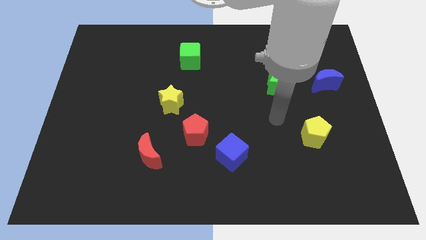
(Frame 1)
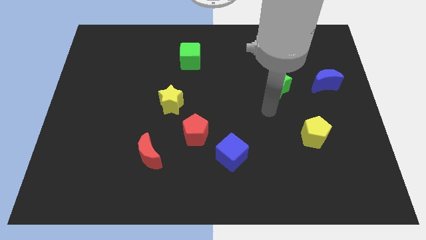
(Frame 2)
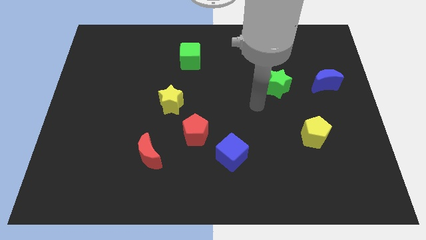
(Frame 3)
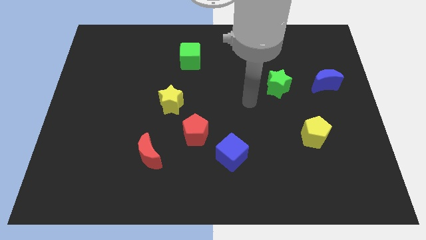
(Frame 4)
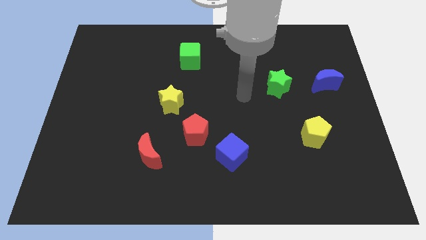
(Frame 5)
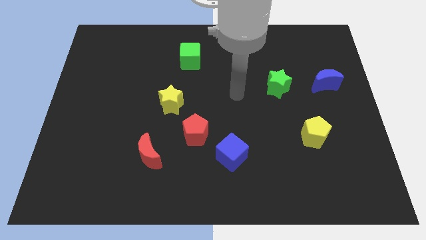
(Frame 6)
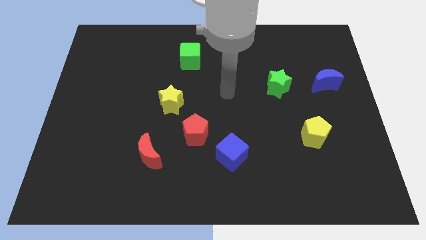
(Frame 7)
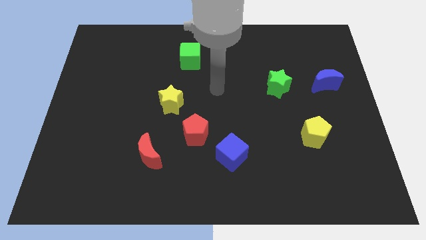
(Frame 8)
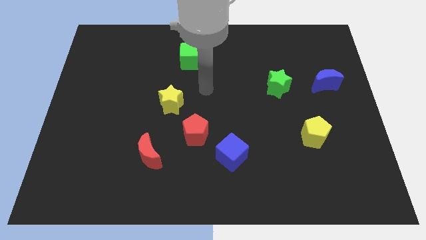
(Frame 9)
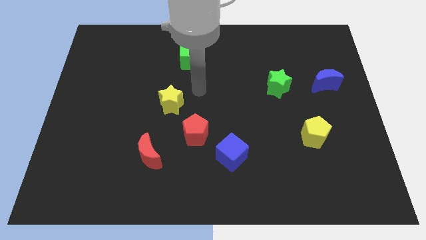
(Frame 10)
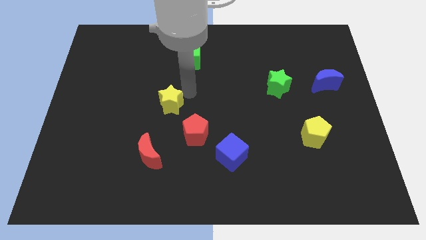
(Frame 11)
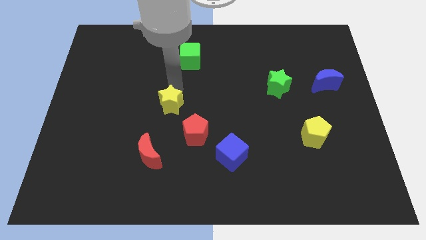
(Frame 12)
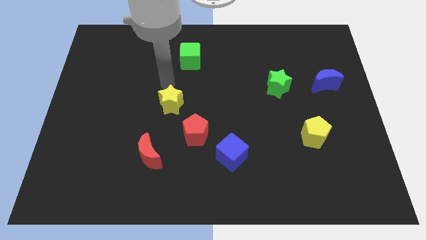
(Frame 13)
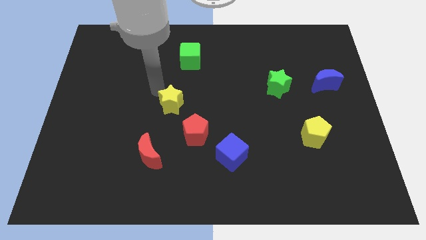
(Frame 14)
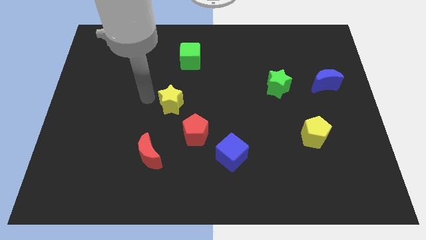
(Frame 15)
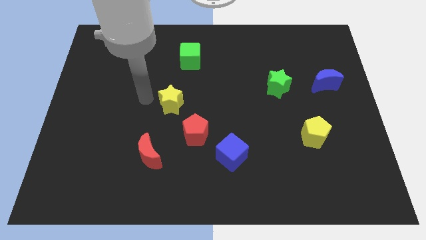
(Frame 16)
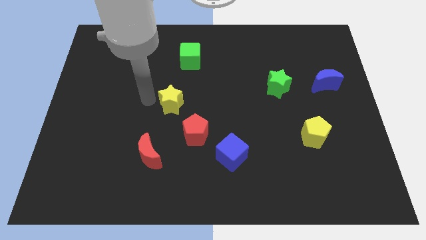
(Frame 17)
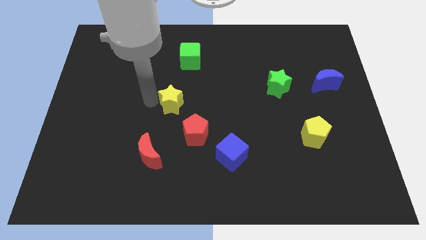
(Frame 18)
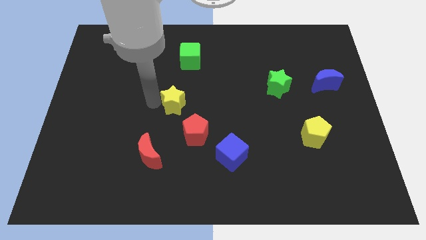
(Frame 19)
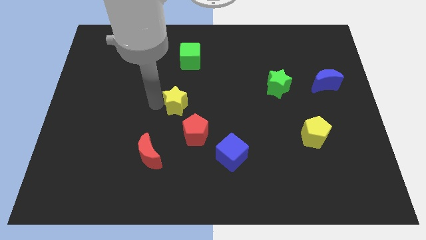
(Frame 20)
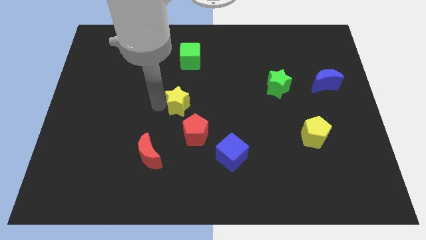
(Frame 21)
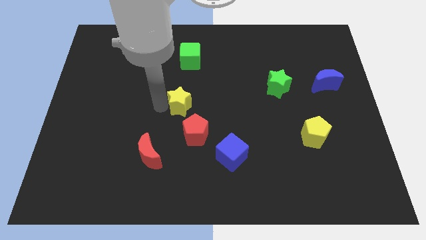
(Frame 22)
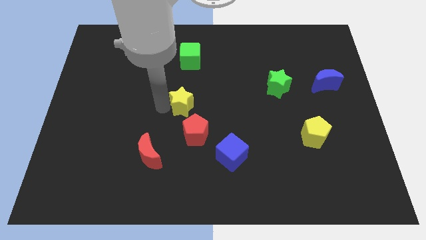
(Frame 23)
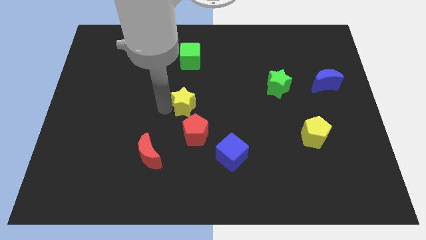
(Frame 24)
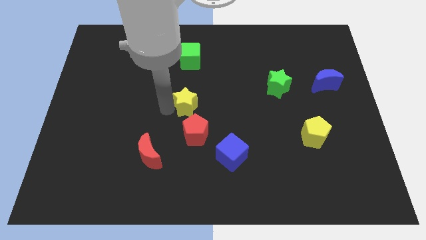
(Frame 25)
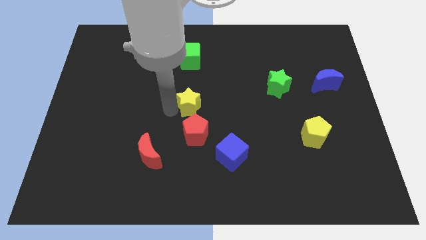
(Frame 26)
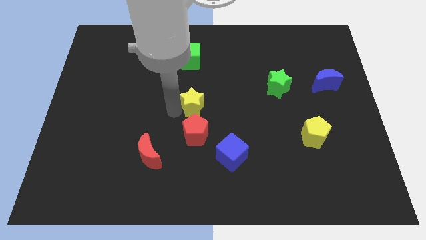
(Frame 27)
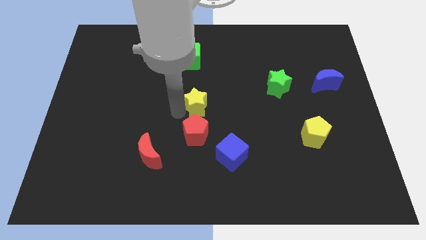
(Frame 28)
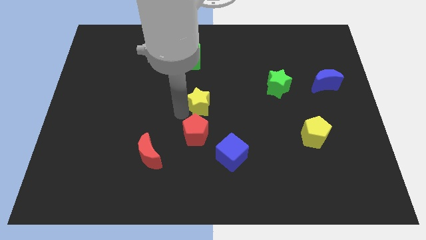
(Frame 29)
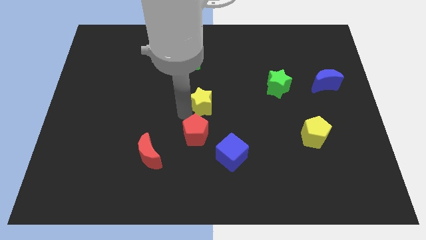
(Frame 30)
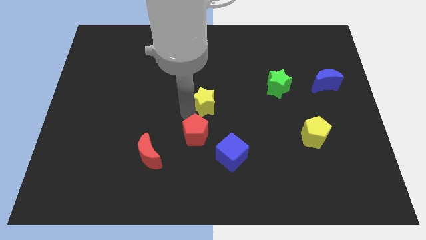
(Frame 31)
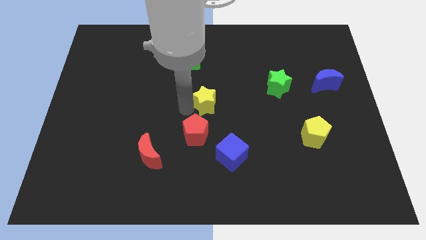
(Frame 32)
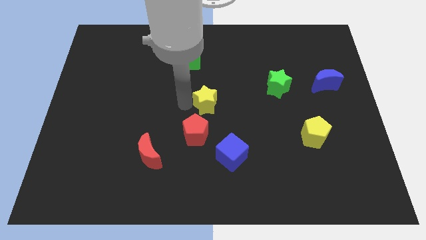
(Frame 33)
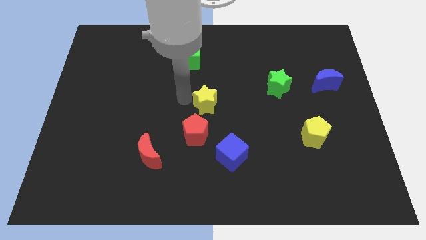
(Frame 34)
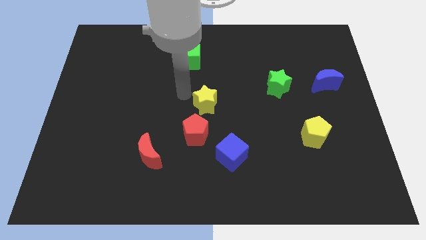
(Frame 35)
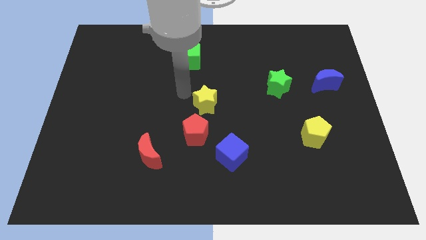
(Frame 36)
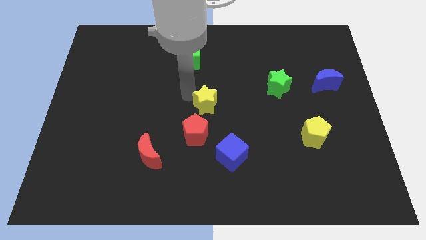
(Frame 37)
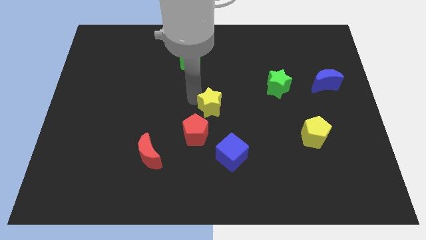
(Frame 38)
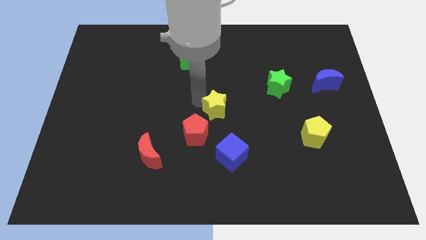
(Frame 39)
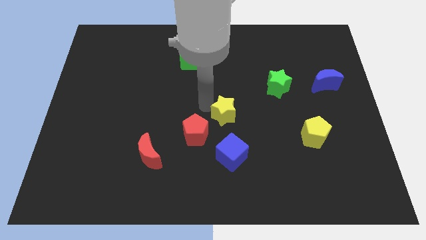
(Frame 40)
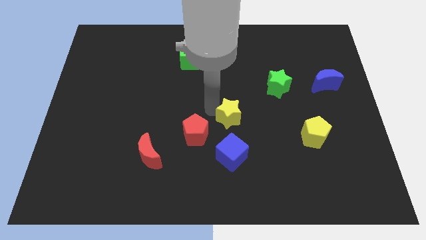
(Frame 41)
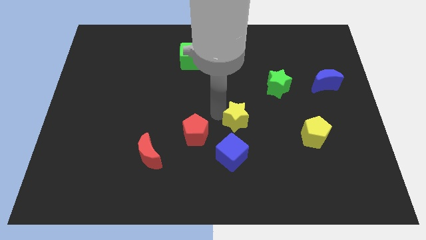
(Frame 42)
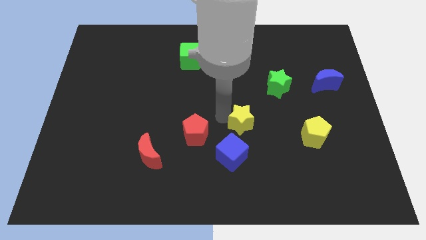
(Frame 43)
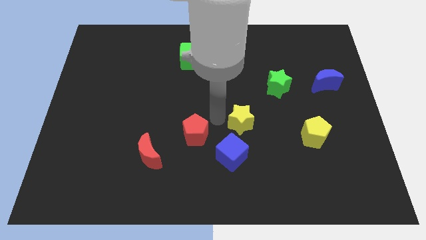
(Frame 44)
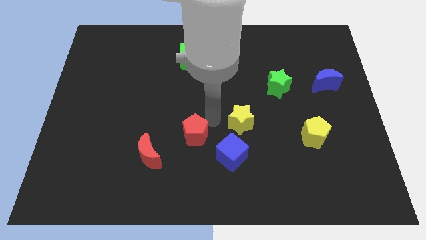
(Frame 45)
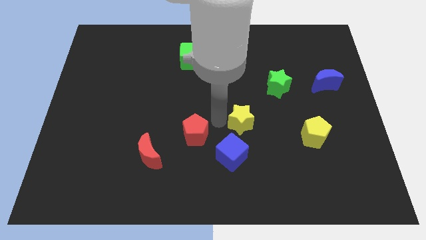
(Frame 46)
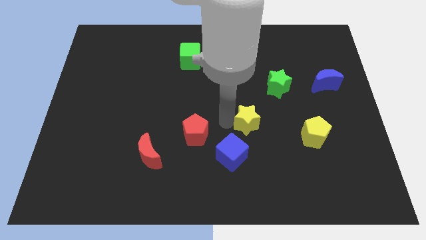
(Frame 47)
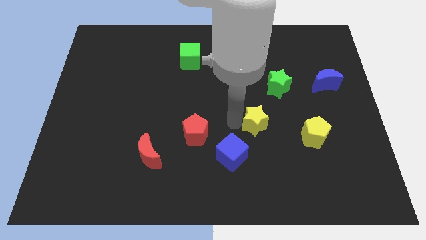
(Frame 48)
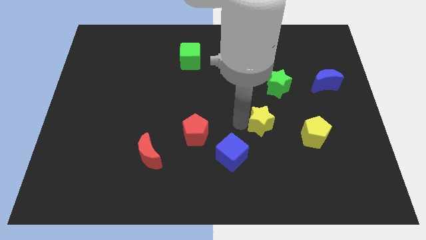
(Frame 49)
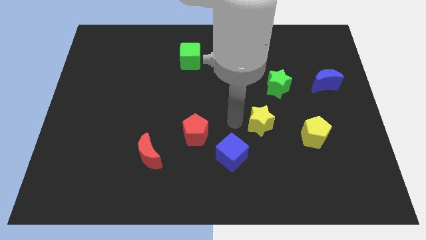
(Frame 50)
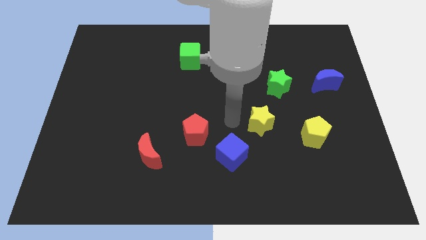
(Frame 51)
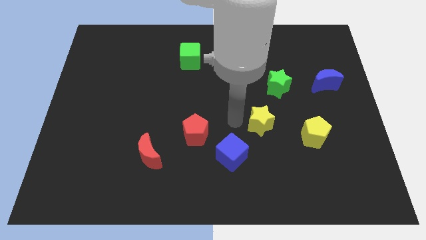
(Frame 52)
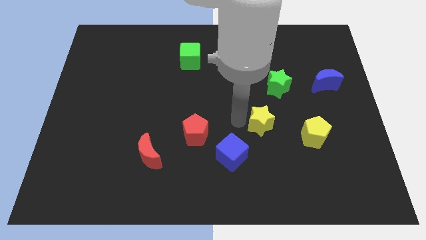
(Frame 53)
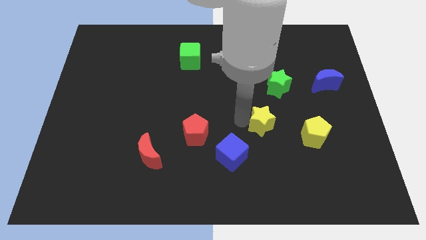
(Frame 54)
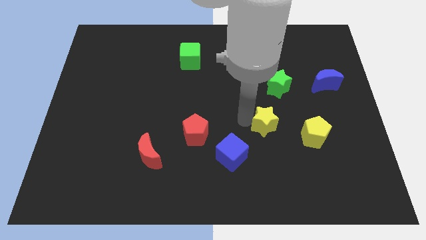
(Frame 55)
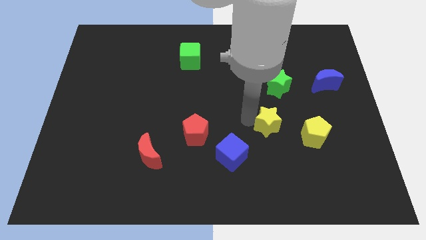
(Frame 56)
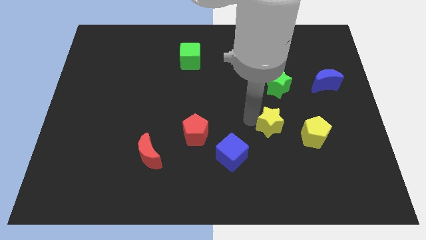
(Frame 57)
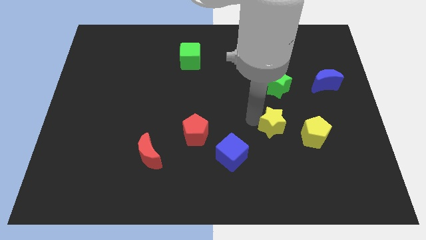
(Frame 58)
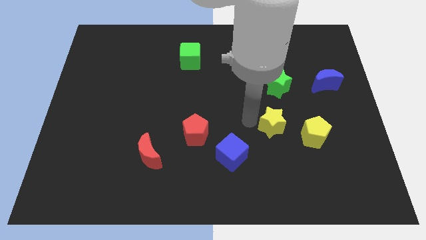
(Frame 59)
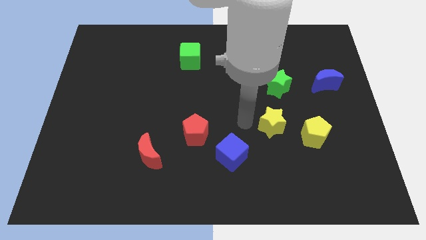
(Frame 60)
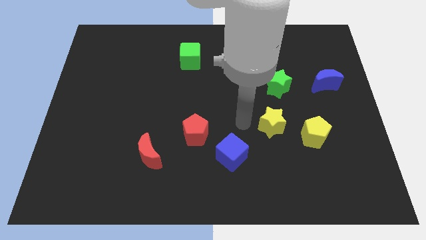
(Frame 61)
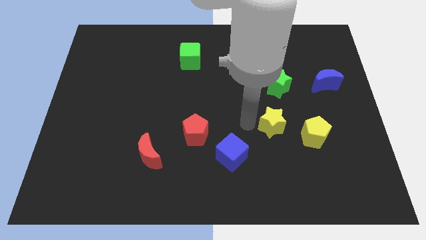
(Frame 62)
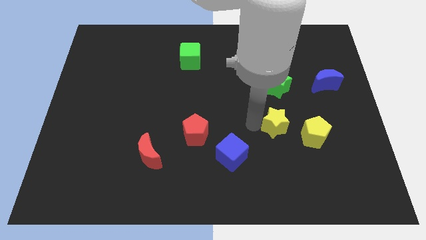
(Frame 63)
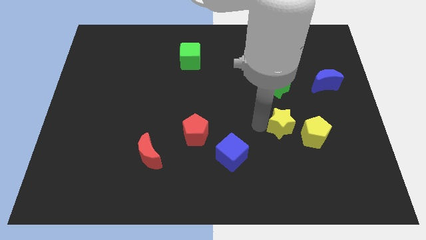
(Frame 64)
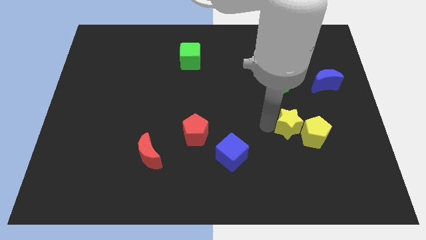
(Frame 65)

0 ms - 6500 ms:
move the yellow star to the yellow pentagon
